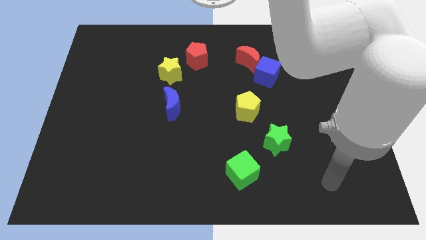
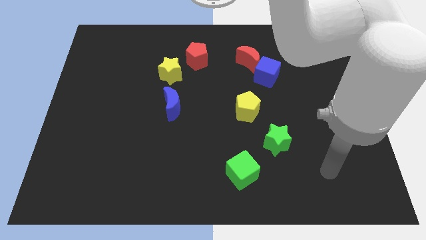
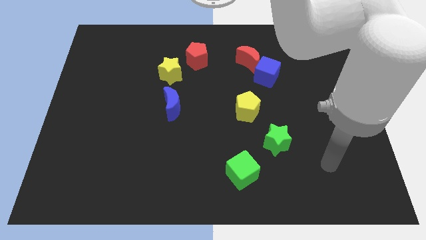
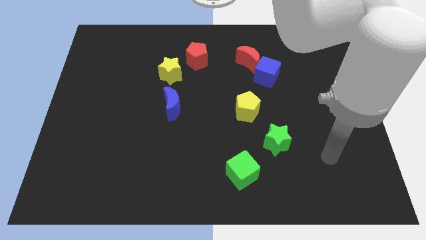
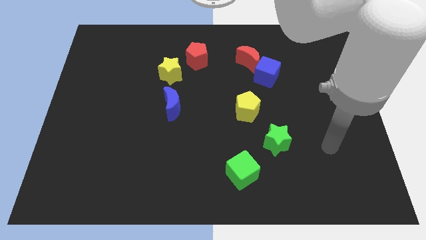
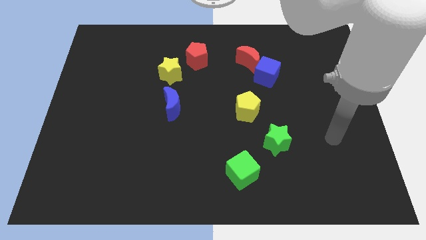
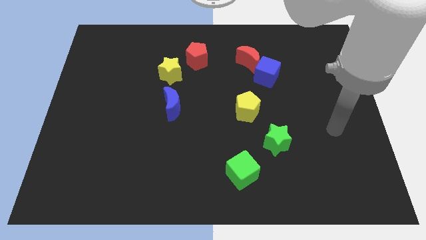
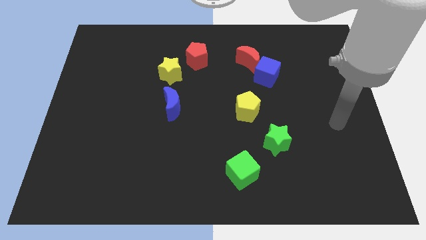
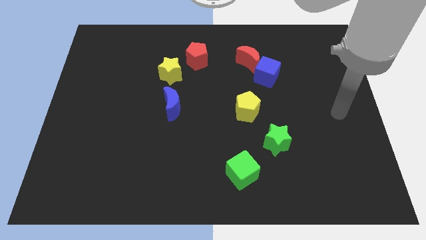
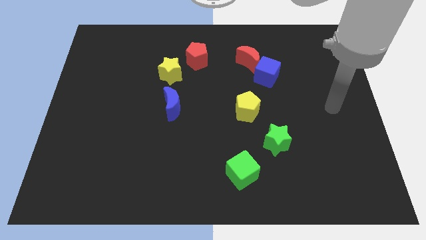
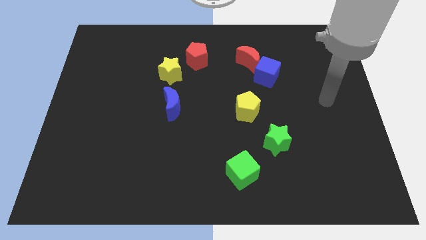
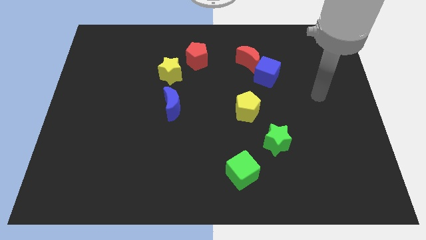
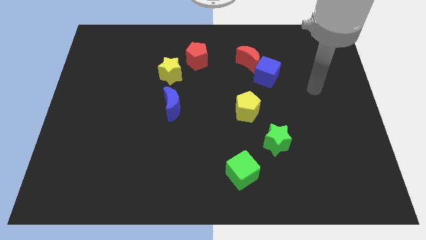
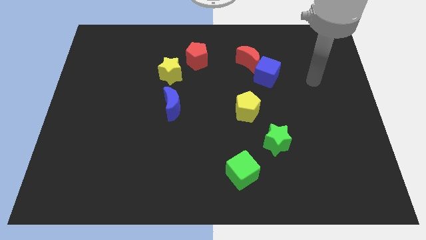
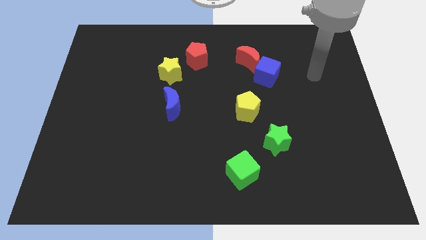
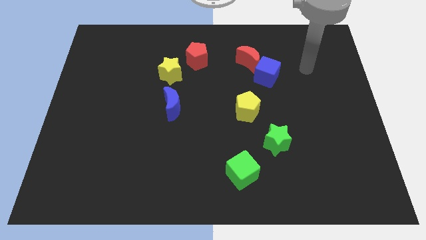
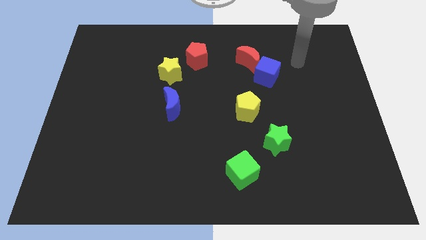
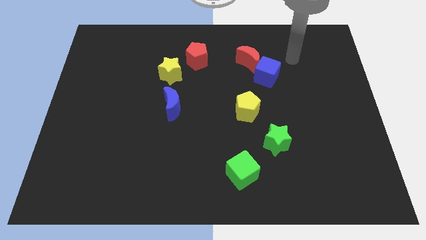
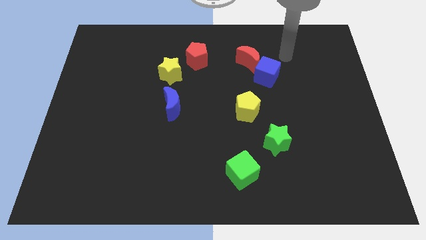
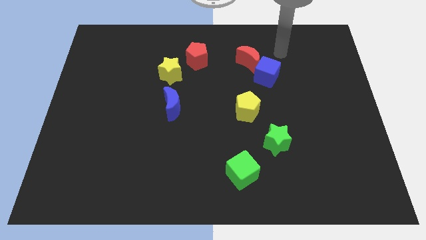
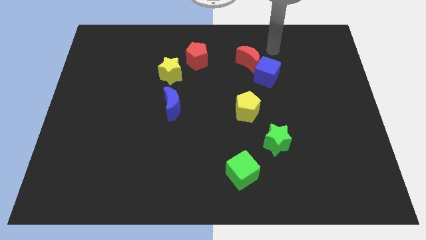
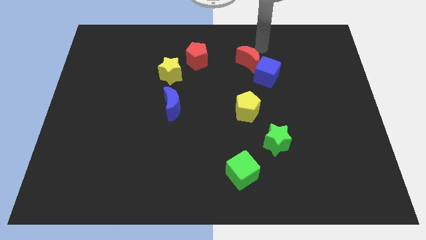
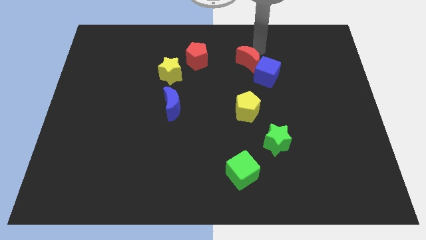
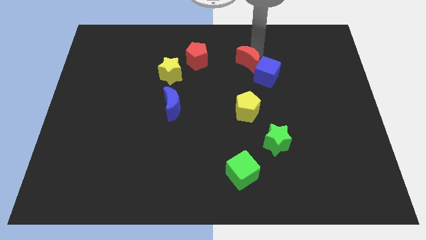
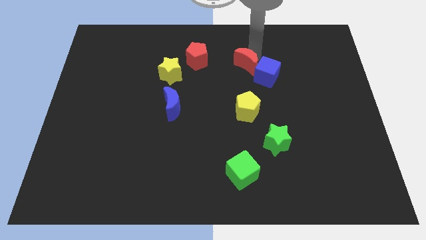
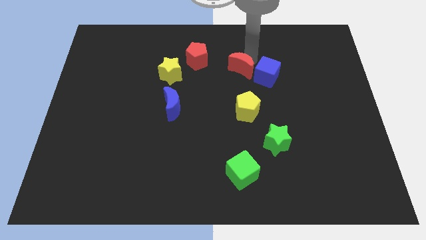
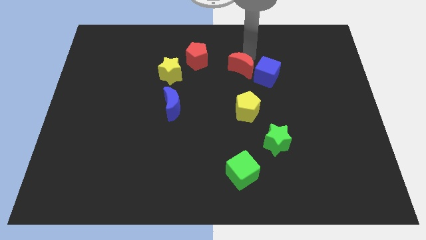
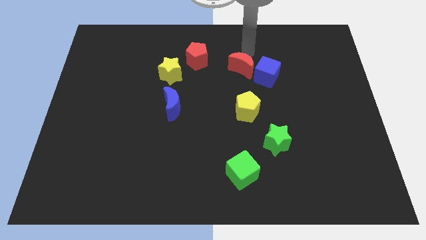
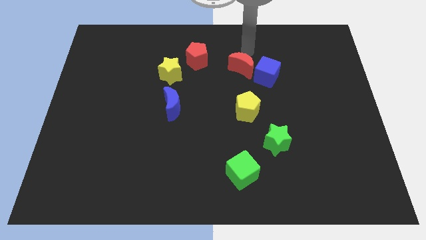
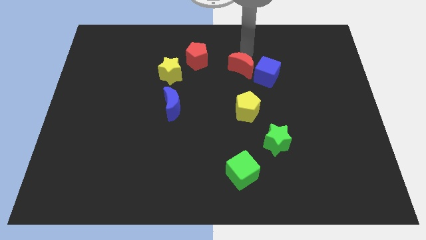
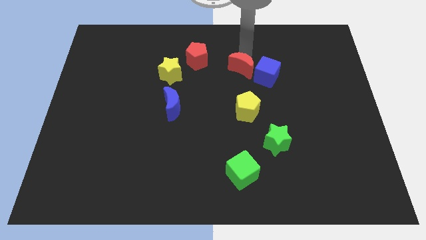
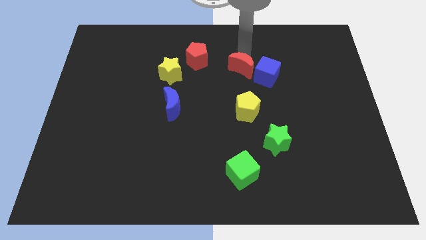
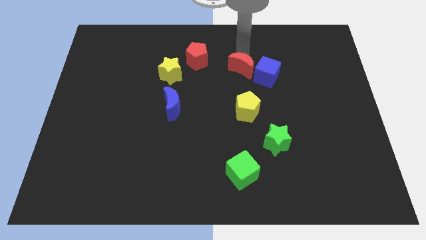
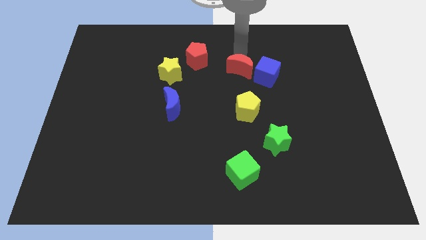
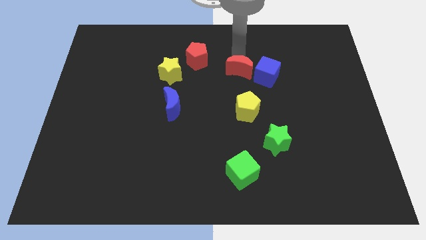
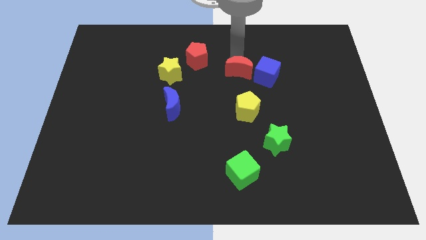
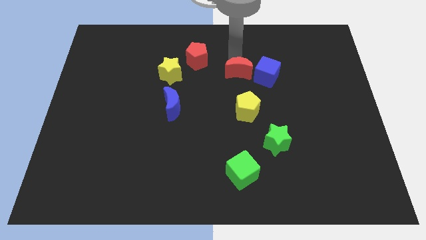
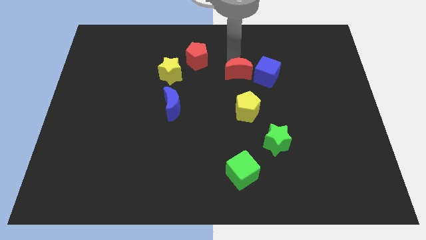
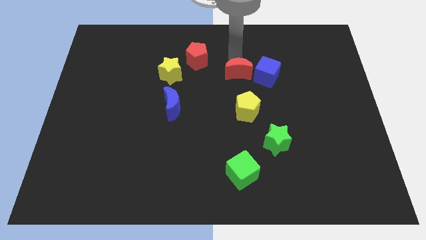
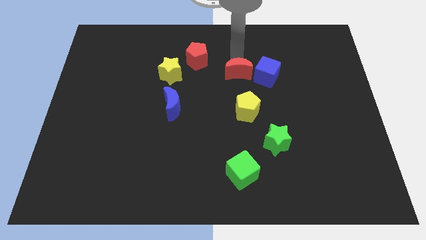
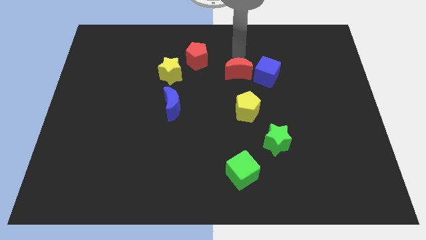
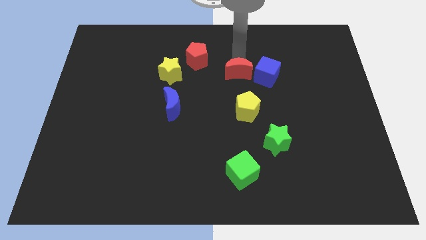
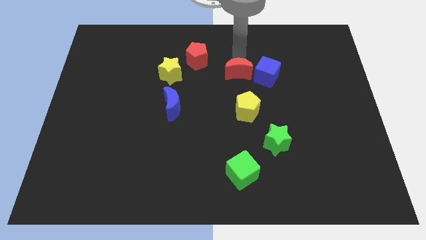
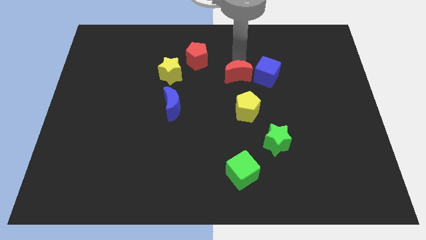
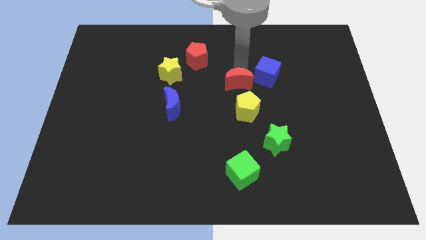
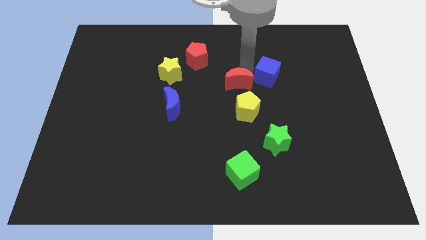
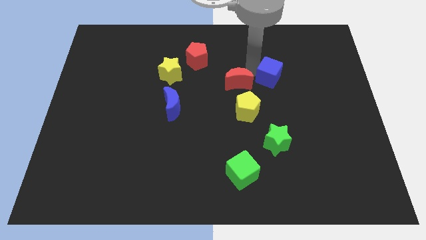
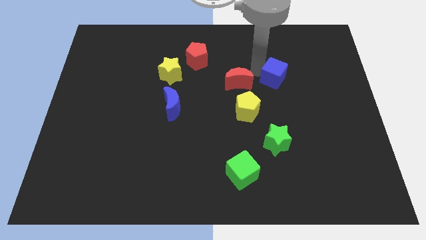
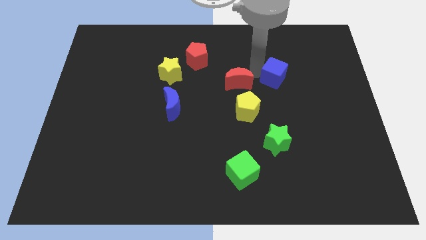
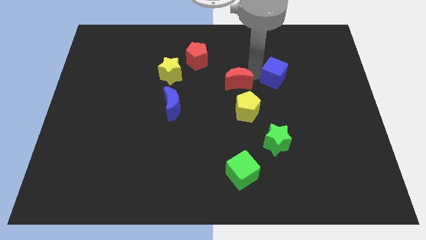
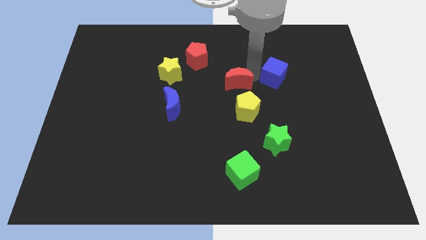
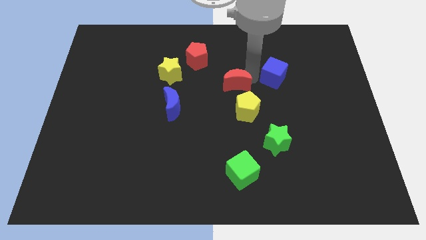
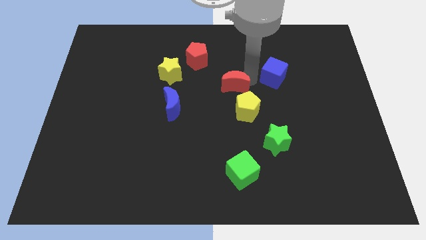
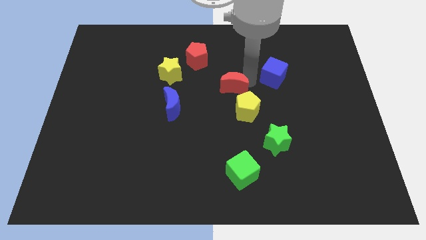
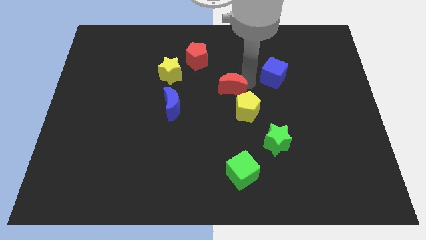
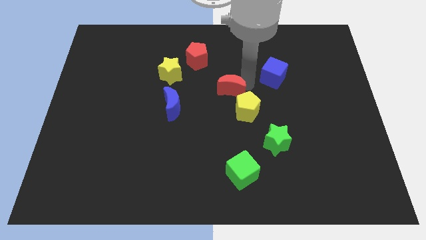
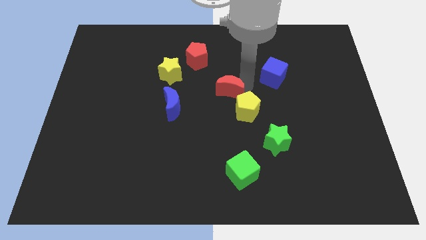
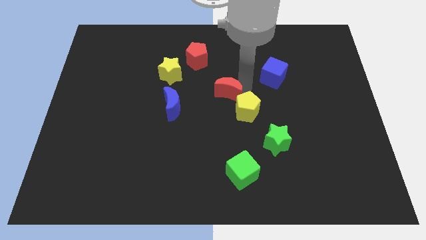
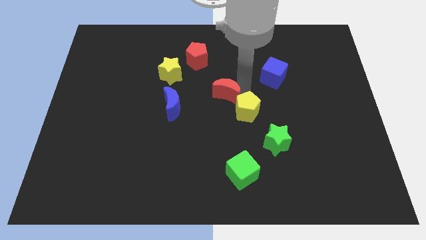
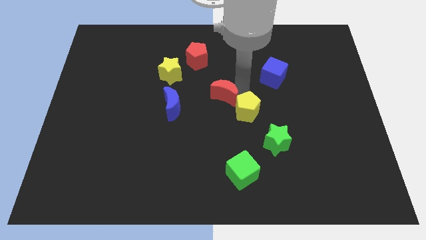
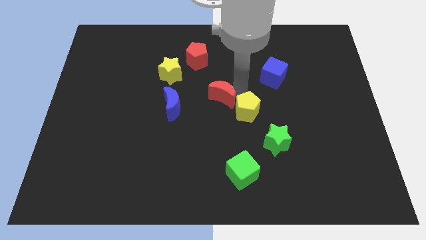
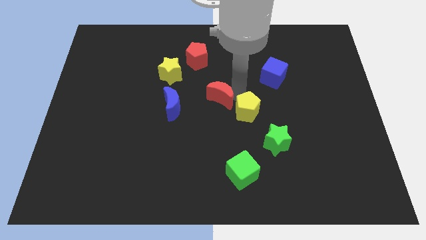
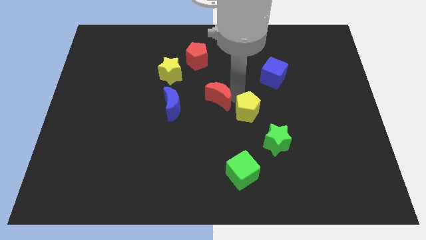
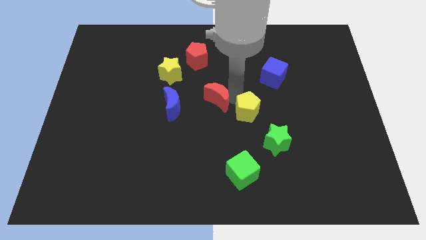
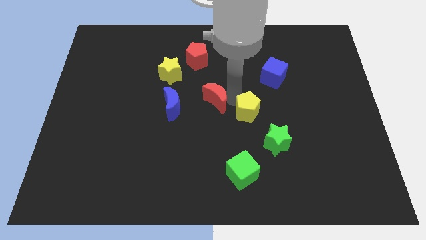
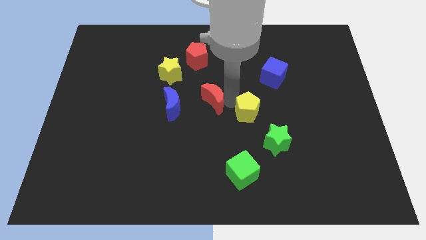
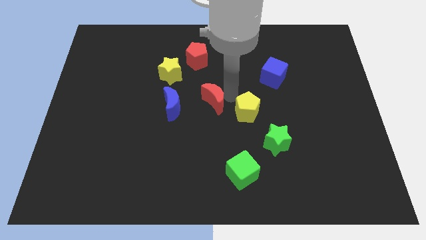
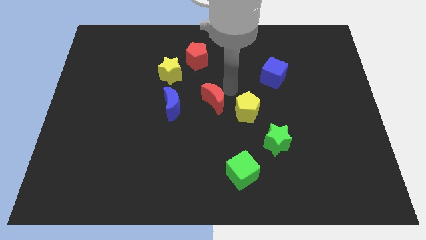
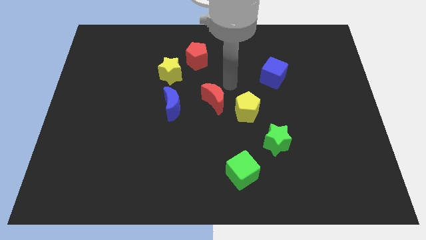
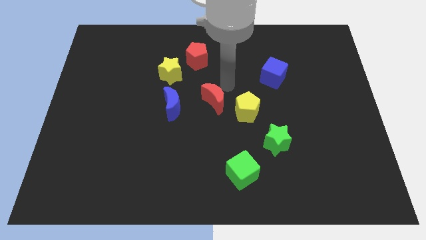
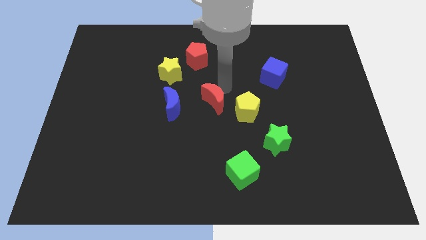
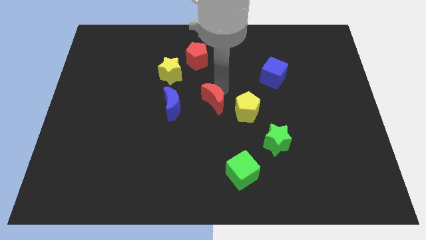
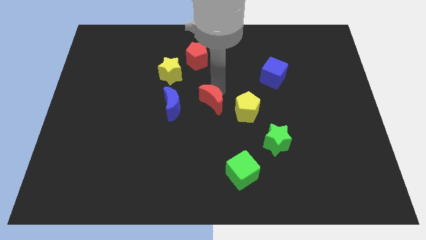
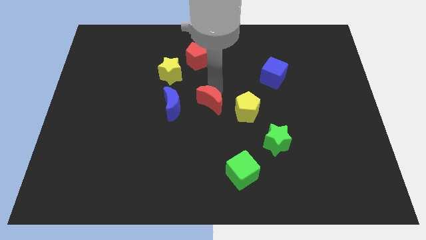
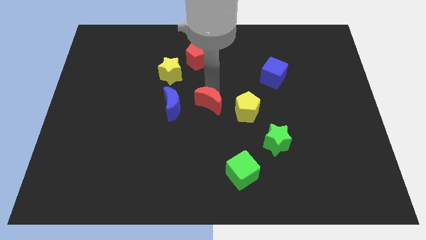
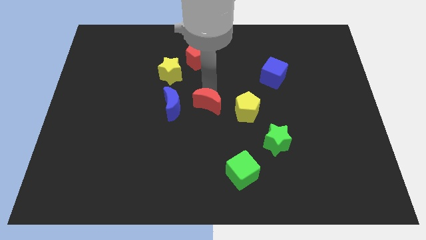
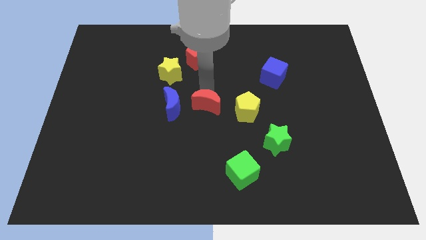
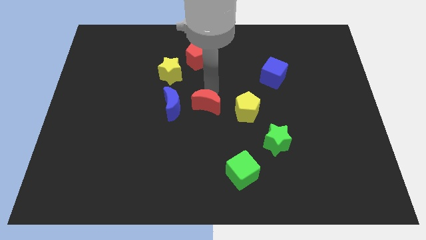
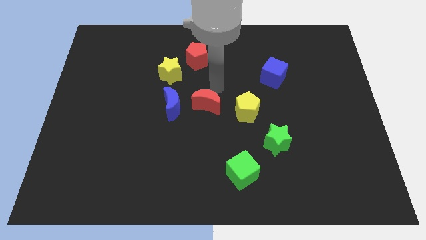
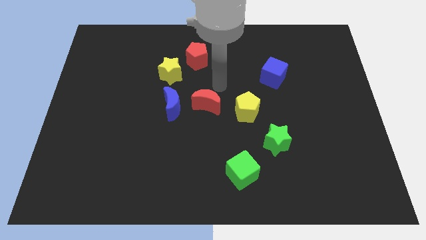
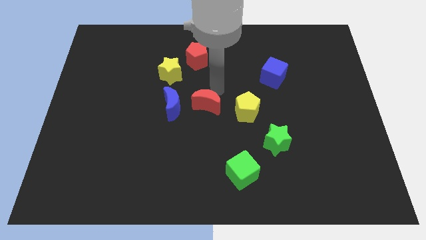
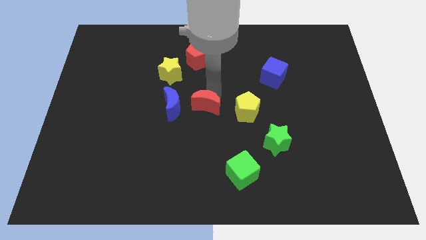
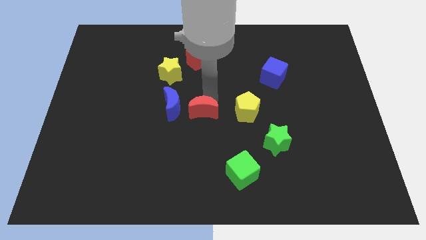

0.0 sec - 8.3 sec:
slide the red moon diagonally down and to the right of the blue moon
